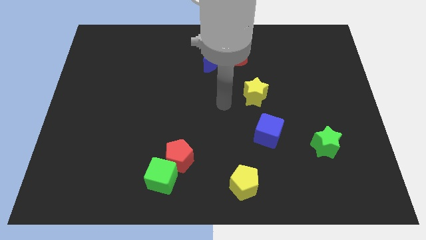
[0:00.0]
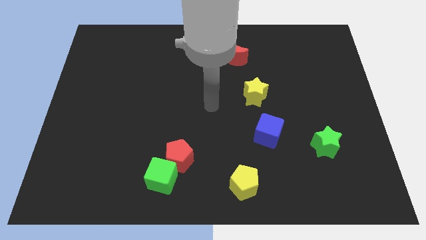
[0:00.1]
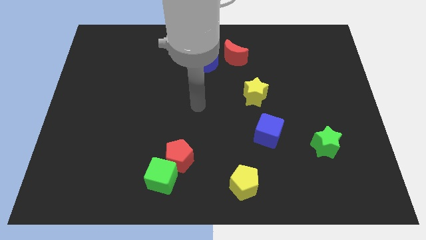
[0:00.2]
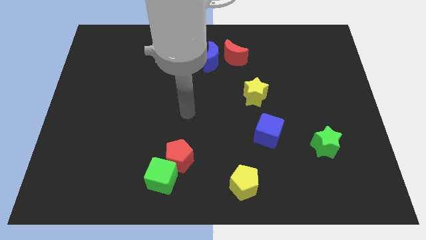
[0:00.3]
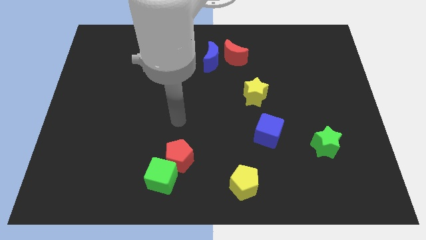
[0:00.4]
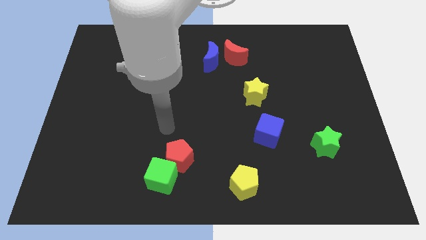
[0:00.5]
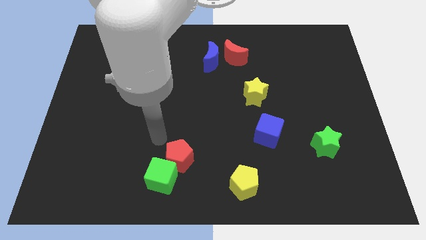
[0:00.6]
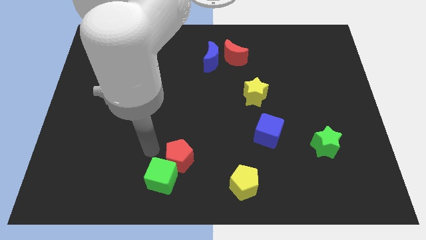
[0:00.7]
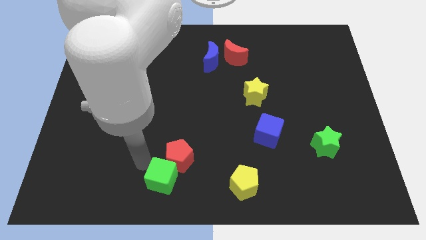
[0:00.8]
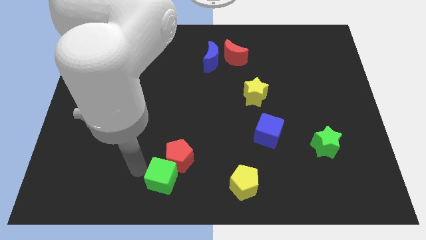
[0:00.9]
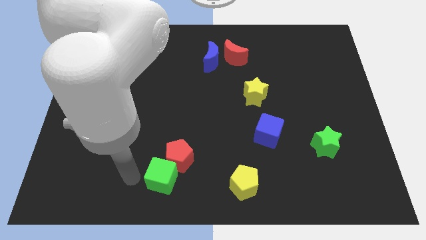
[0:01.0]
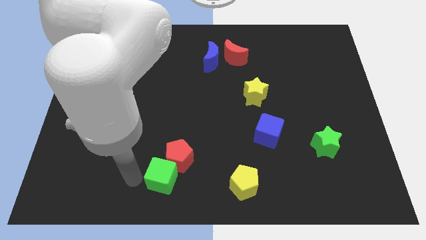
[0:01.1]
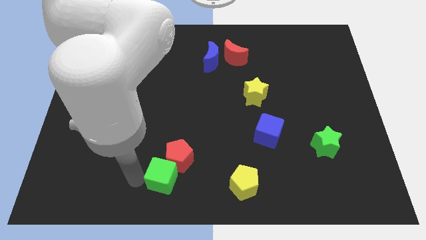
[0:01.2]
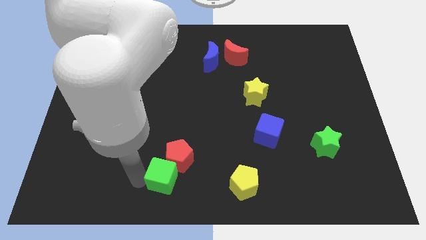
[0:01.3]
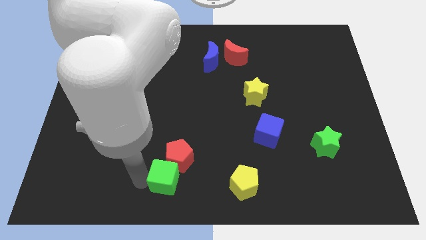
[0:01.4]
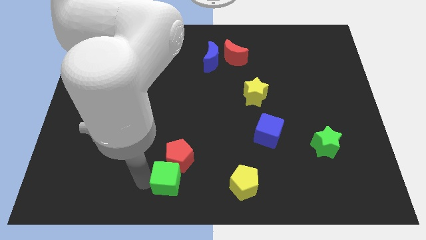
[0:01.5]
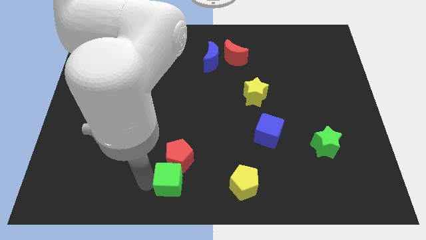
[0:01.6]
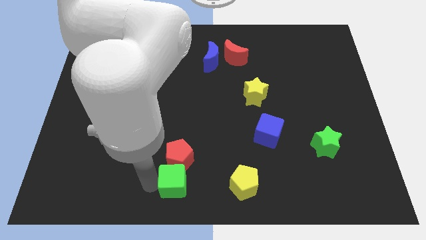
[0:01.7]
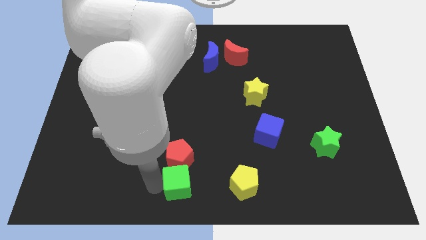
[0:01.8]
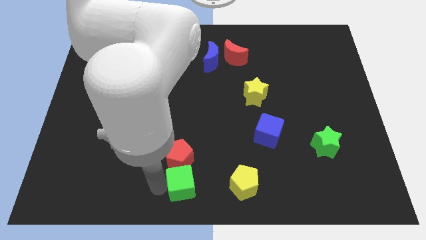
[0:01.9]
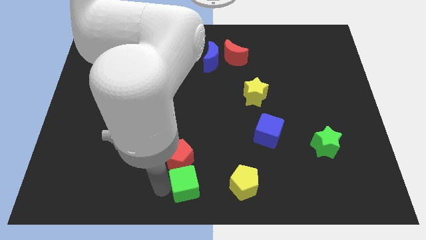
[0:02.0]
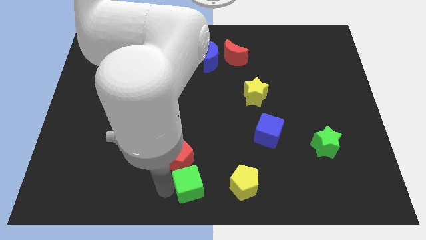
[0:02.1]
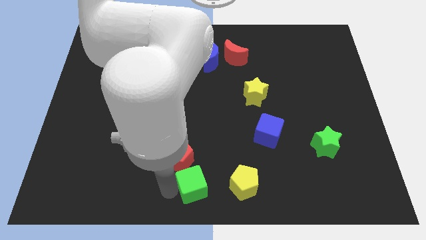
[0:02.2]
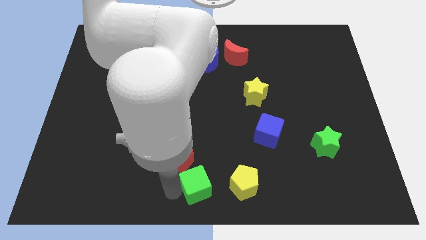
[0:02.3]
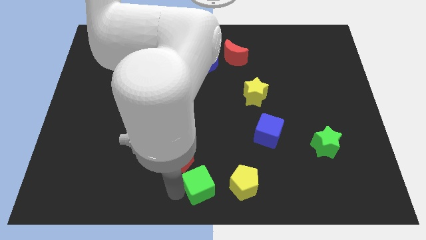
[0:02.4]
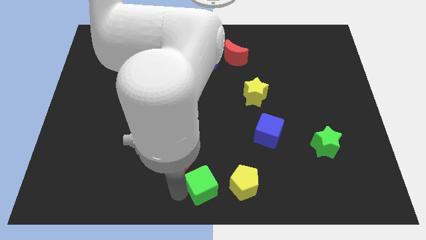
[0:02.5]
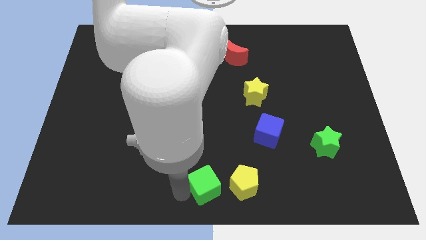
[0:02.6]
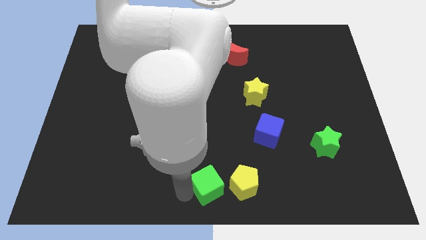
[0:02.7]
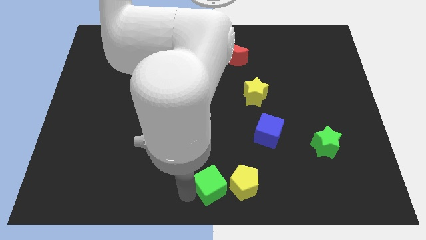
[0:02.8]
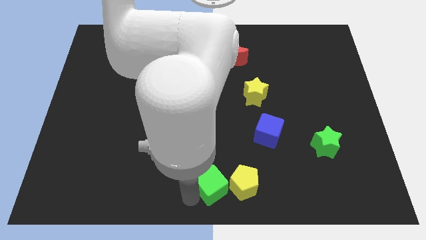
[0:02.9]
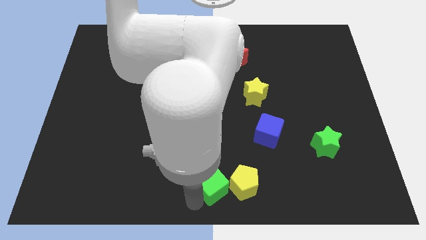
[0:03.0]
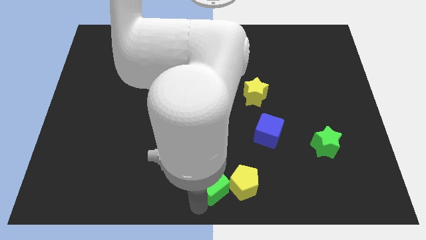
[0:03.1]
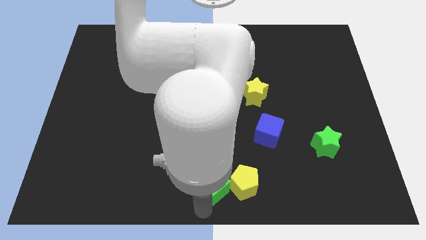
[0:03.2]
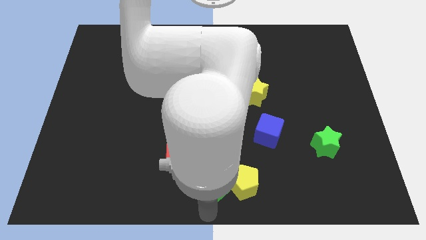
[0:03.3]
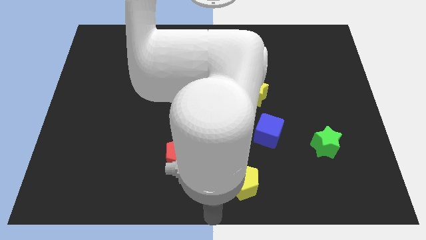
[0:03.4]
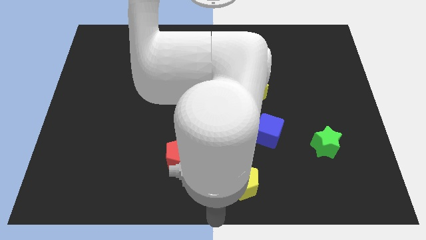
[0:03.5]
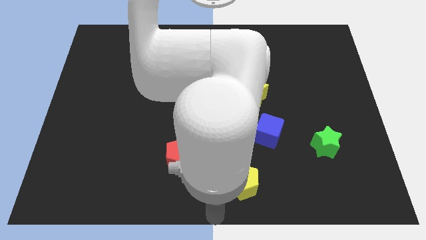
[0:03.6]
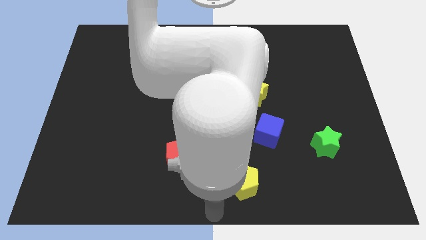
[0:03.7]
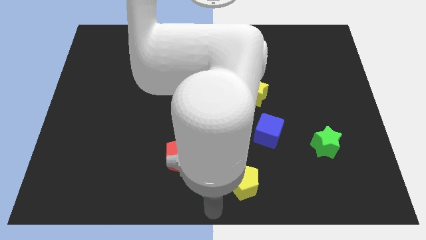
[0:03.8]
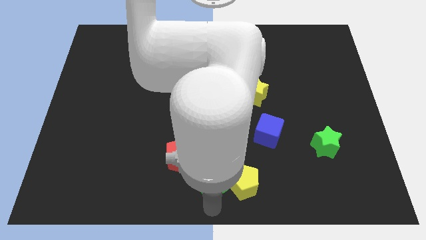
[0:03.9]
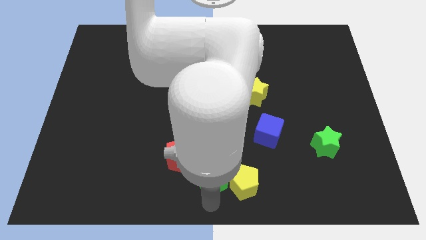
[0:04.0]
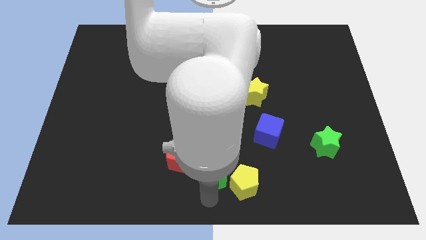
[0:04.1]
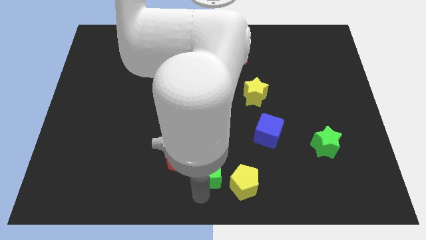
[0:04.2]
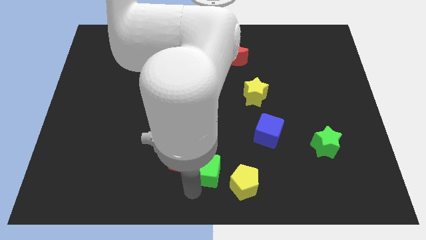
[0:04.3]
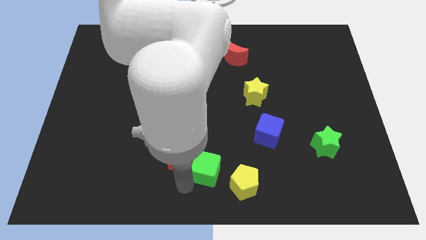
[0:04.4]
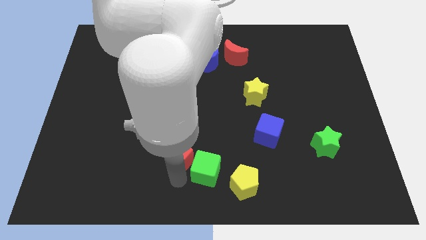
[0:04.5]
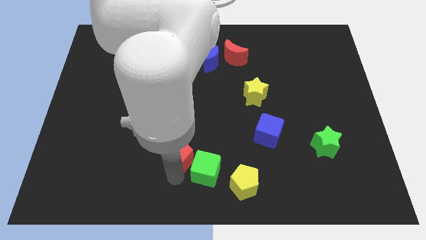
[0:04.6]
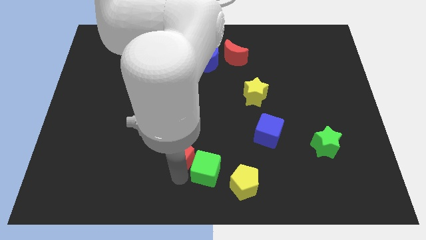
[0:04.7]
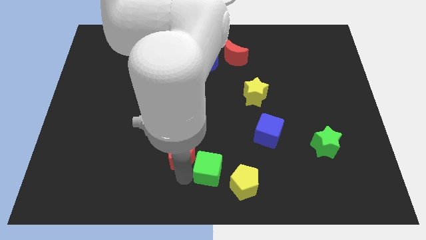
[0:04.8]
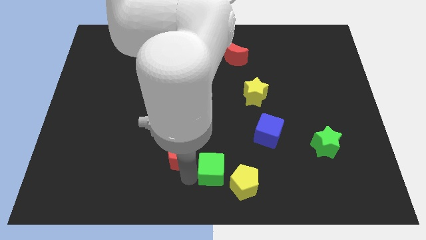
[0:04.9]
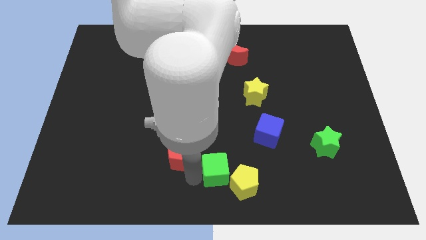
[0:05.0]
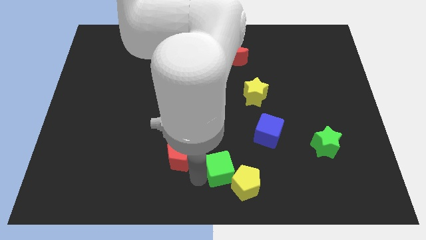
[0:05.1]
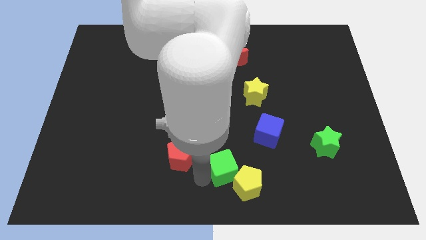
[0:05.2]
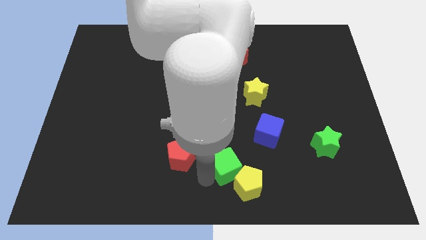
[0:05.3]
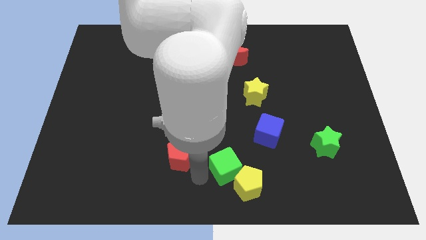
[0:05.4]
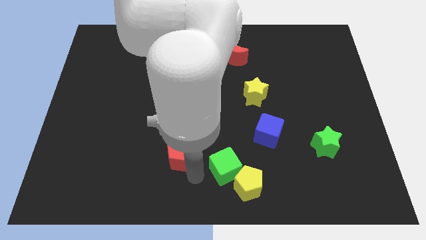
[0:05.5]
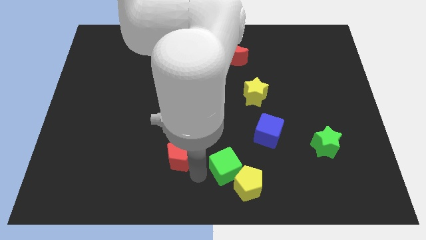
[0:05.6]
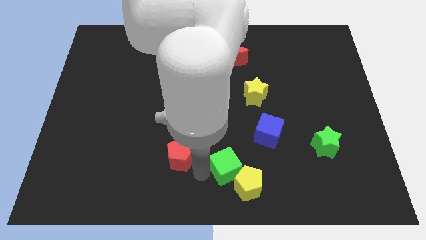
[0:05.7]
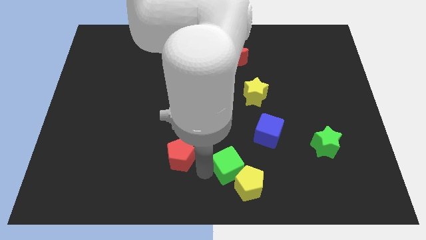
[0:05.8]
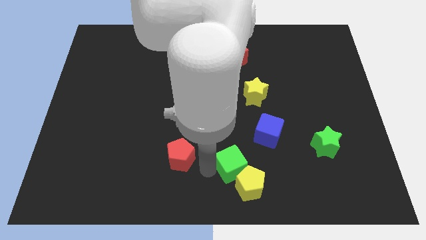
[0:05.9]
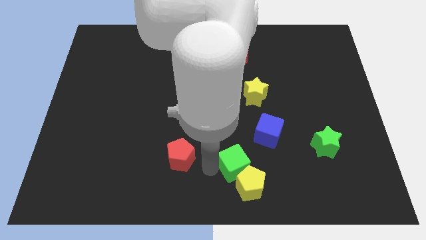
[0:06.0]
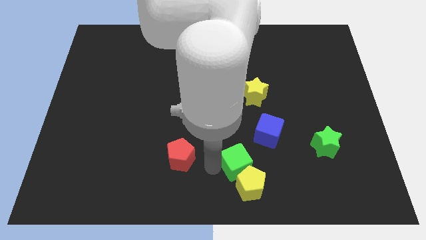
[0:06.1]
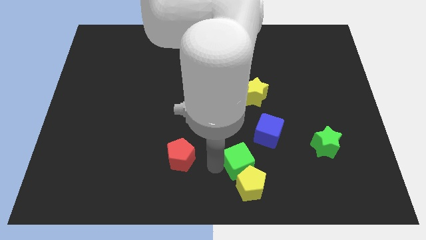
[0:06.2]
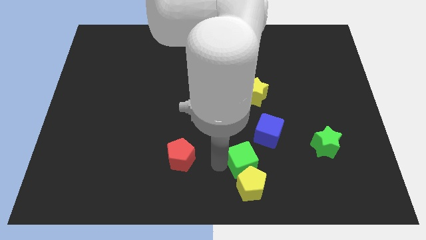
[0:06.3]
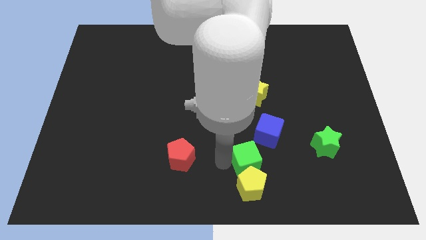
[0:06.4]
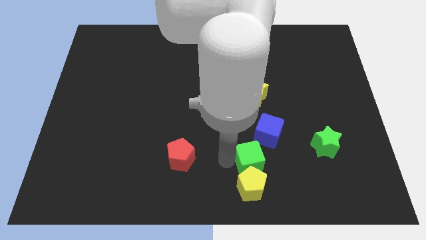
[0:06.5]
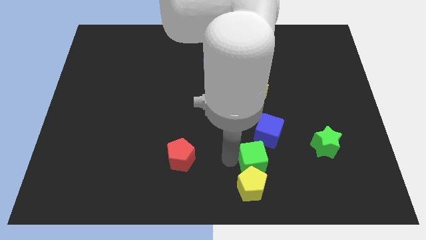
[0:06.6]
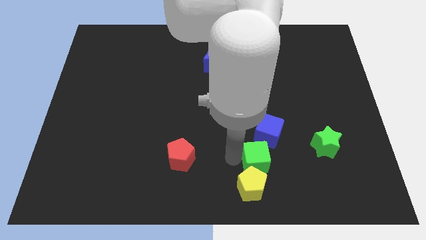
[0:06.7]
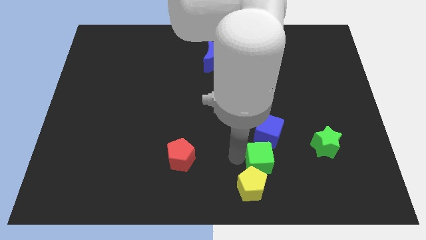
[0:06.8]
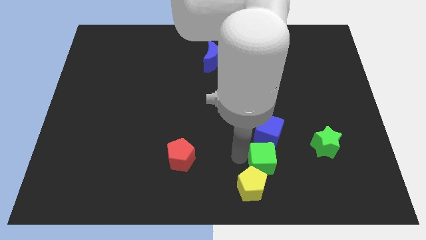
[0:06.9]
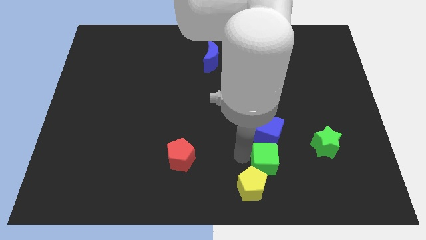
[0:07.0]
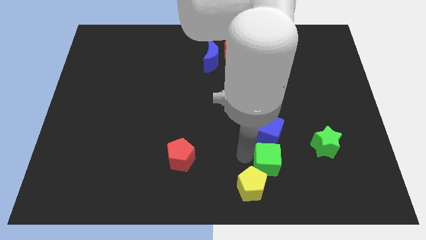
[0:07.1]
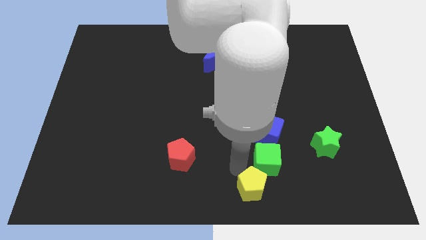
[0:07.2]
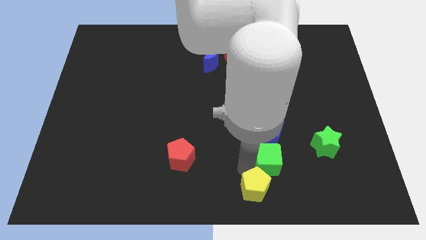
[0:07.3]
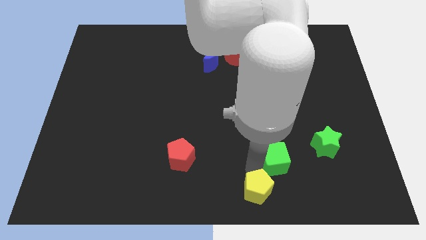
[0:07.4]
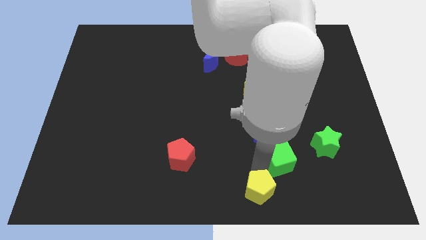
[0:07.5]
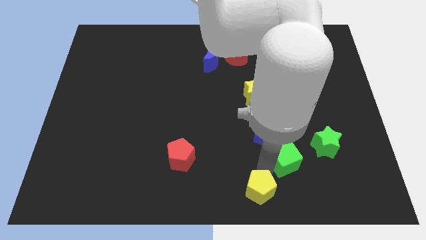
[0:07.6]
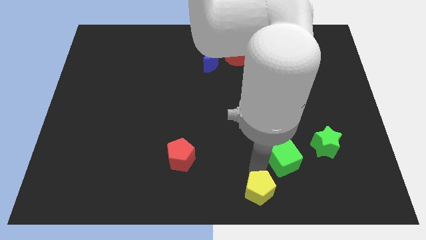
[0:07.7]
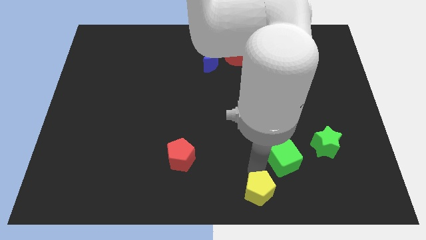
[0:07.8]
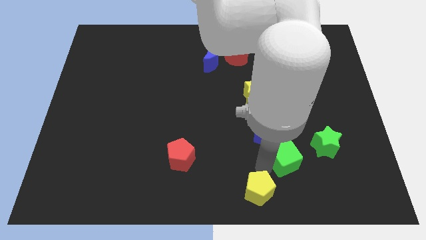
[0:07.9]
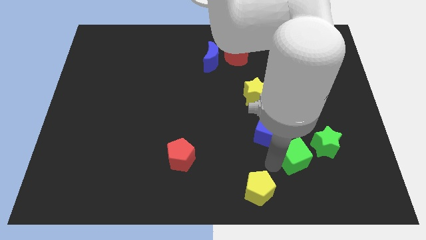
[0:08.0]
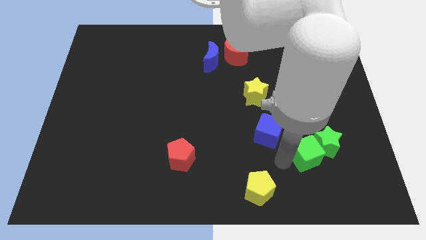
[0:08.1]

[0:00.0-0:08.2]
push the green cube towards the green star
